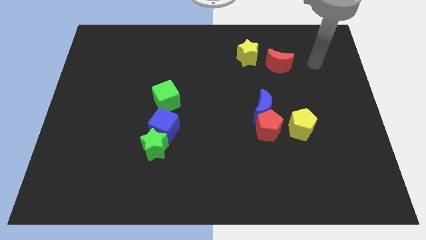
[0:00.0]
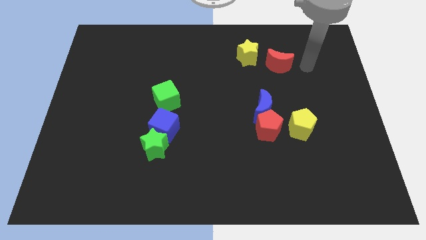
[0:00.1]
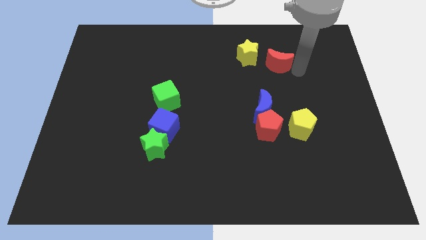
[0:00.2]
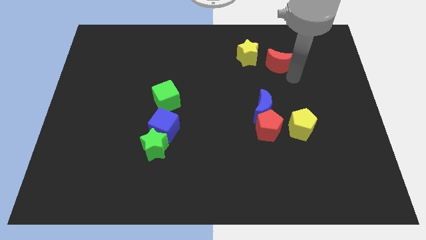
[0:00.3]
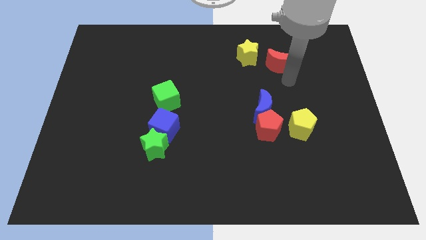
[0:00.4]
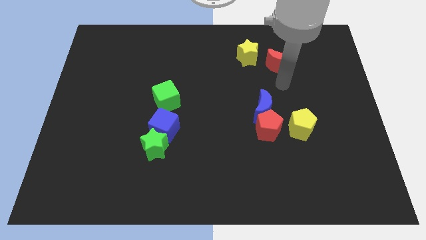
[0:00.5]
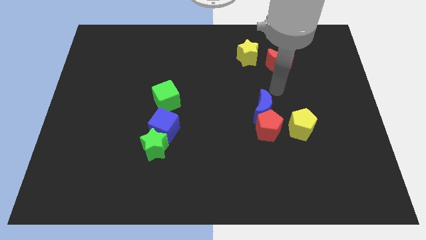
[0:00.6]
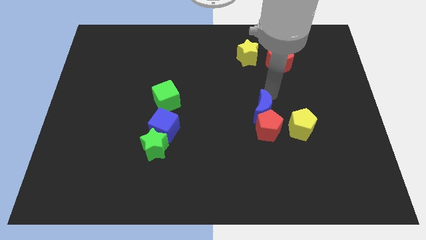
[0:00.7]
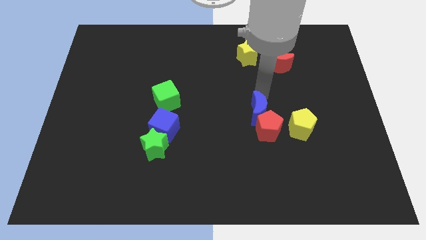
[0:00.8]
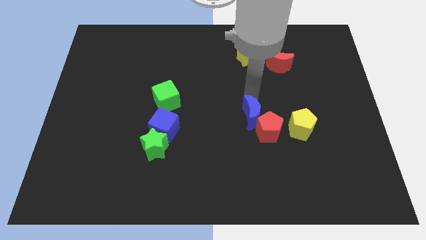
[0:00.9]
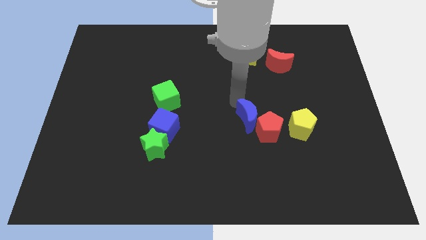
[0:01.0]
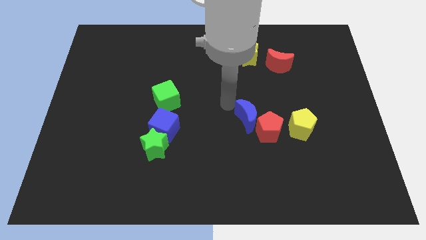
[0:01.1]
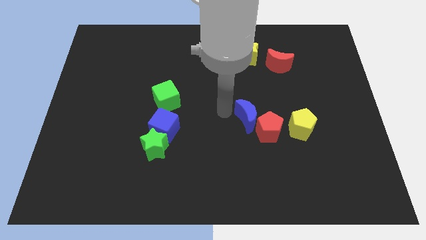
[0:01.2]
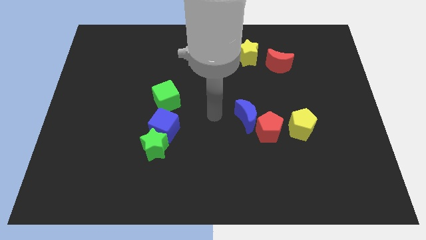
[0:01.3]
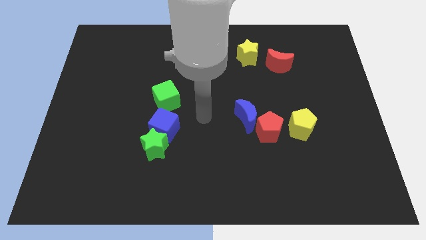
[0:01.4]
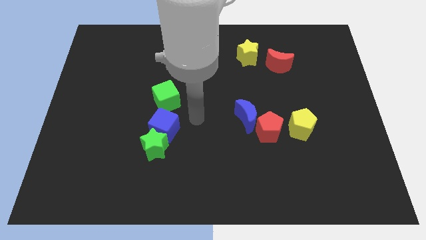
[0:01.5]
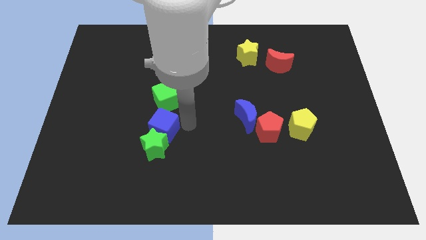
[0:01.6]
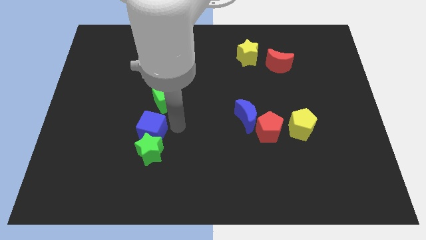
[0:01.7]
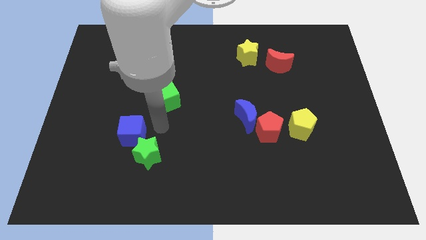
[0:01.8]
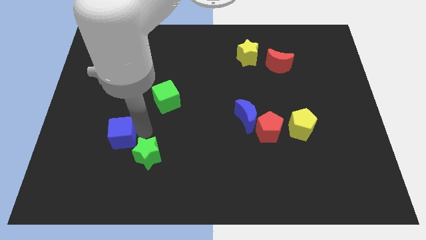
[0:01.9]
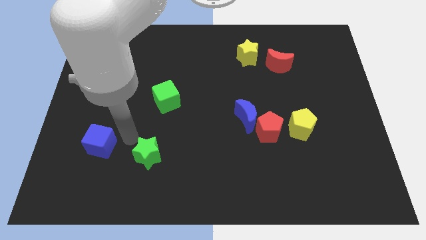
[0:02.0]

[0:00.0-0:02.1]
separate the green star from the blue cube

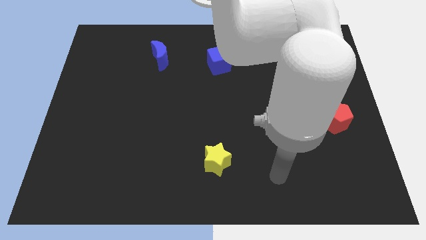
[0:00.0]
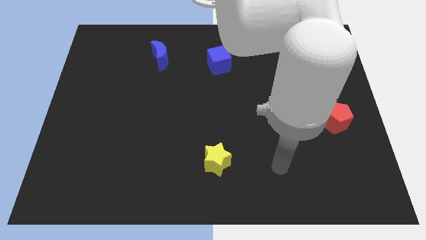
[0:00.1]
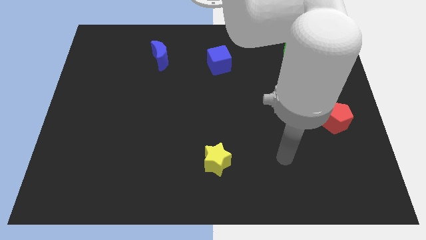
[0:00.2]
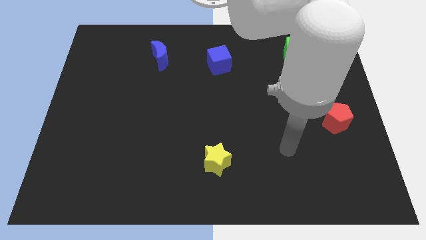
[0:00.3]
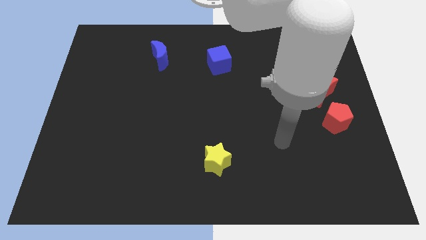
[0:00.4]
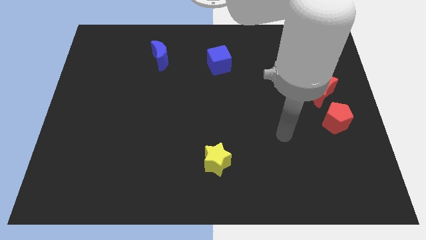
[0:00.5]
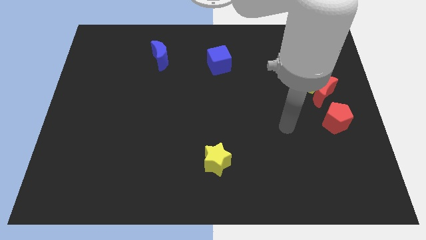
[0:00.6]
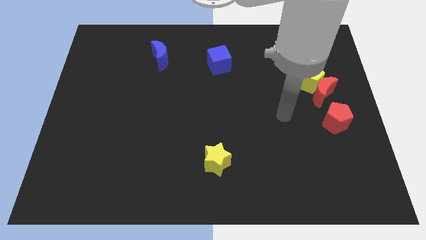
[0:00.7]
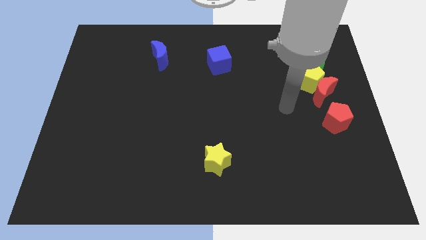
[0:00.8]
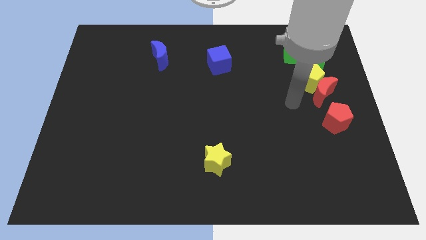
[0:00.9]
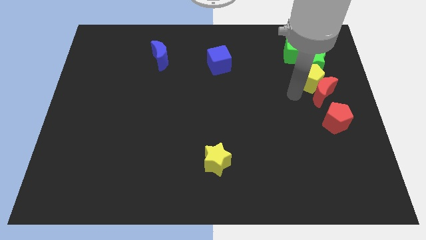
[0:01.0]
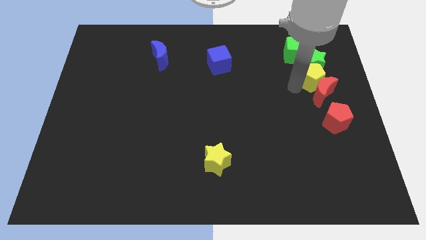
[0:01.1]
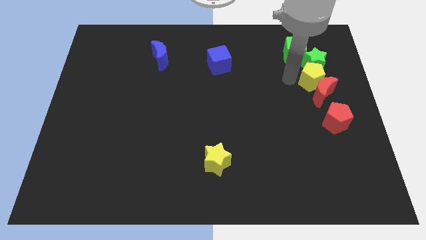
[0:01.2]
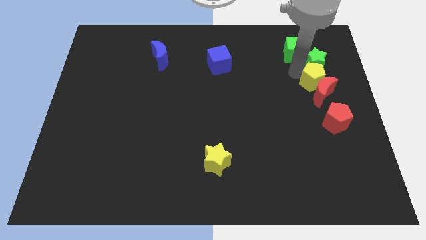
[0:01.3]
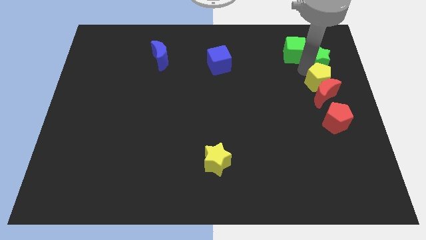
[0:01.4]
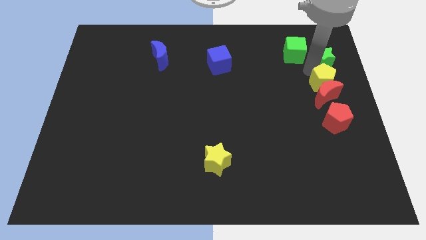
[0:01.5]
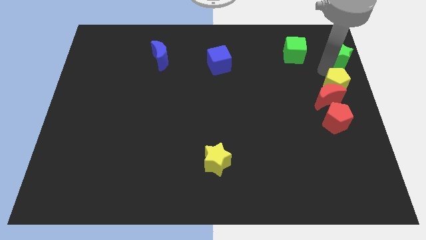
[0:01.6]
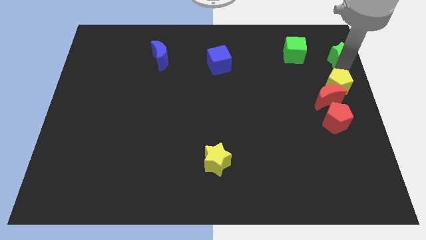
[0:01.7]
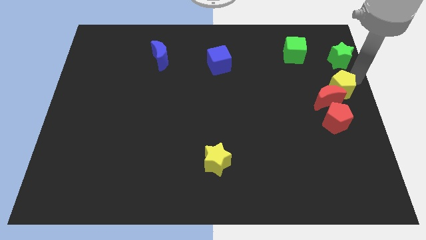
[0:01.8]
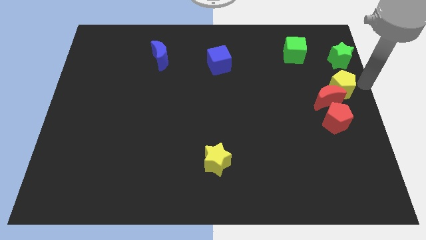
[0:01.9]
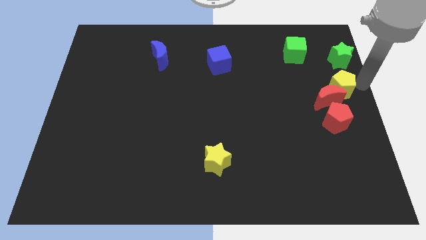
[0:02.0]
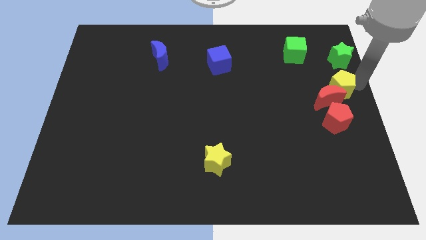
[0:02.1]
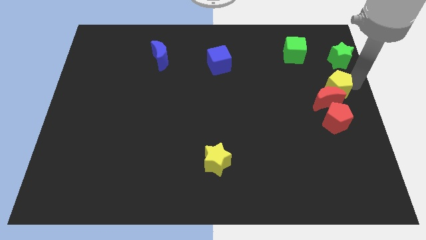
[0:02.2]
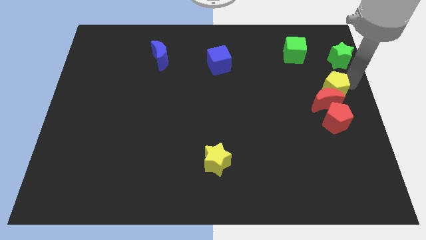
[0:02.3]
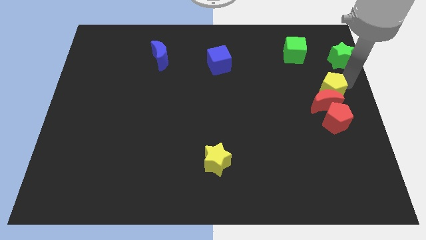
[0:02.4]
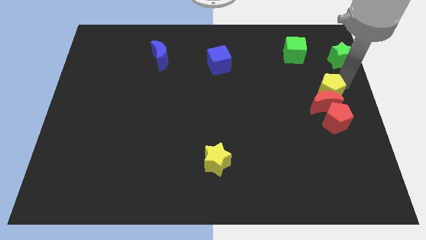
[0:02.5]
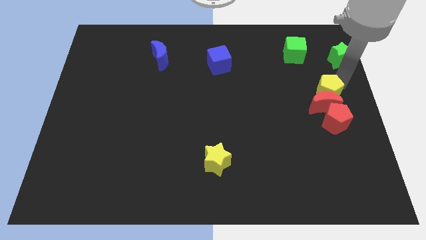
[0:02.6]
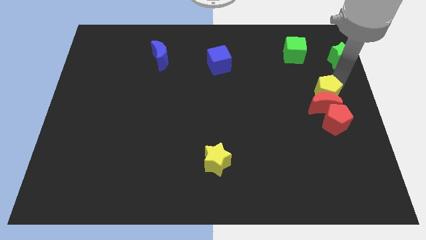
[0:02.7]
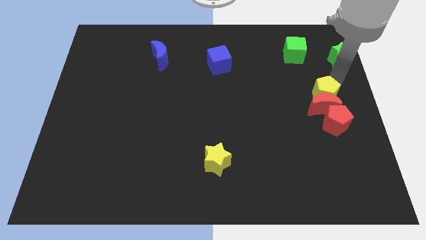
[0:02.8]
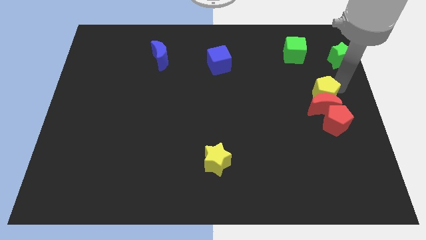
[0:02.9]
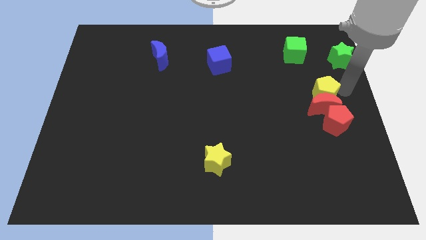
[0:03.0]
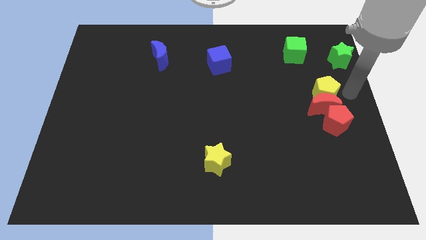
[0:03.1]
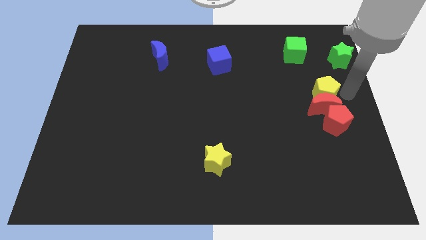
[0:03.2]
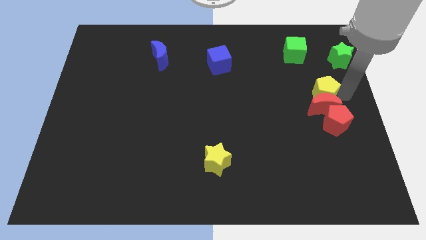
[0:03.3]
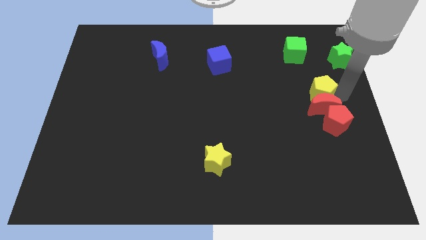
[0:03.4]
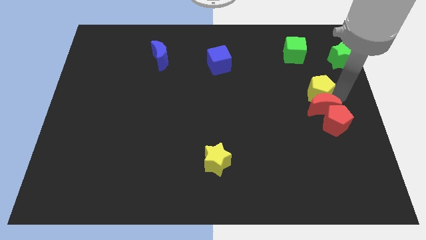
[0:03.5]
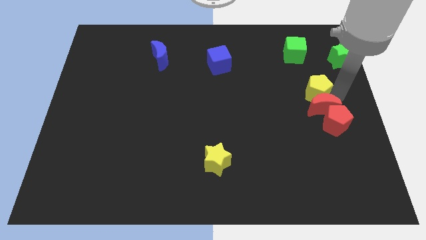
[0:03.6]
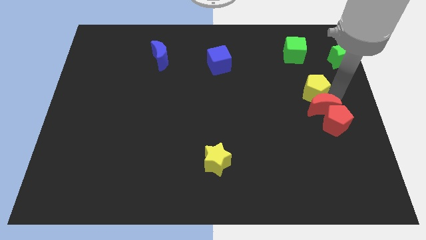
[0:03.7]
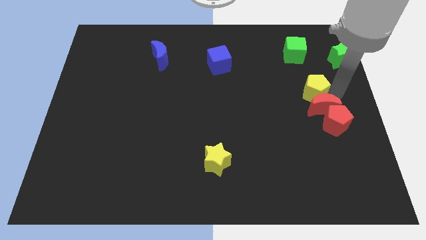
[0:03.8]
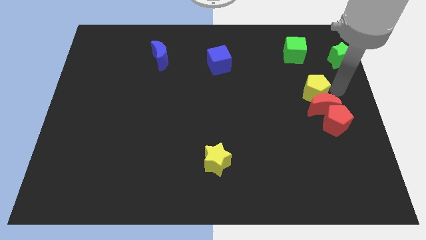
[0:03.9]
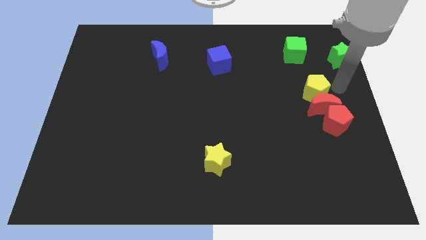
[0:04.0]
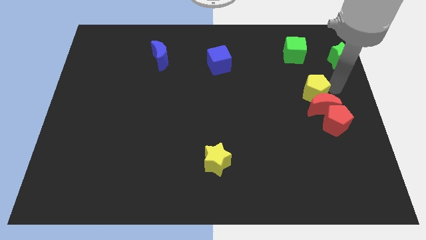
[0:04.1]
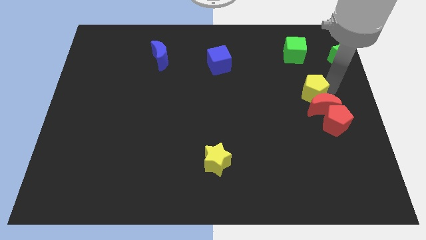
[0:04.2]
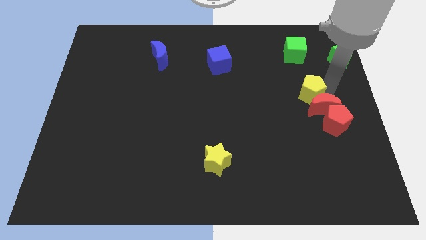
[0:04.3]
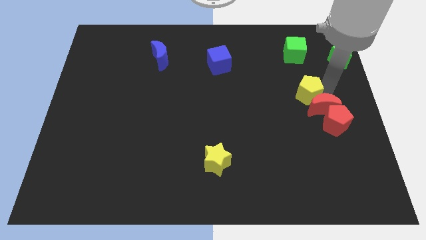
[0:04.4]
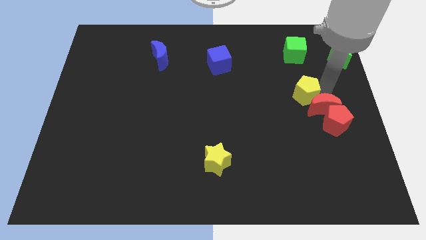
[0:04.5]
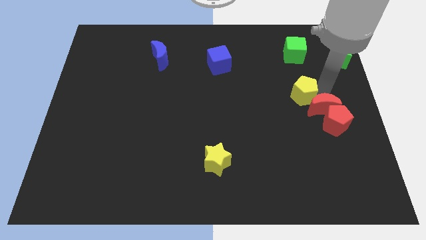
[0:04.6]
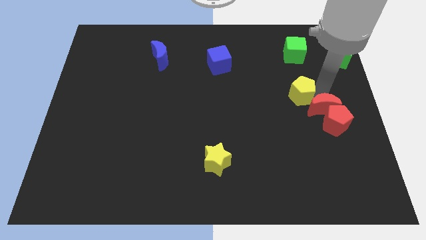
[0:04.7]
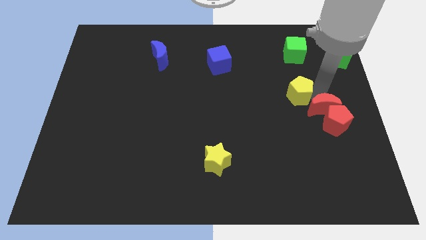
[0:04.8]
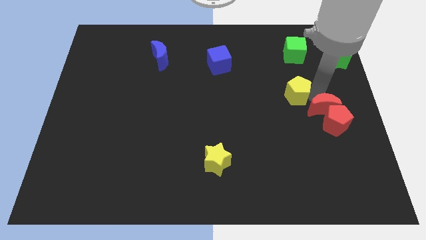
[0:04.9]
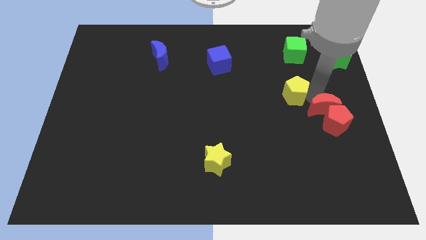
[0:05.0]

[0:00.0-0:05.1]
move the yellow pentagon away from the clump

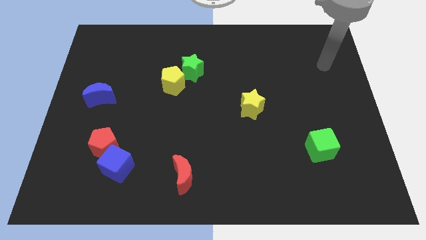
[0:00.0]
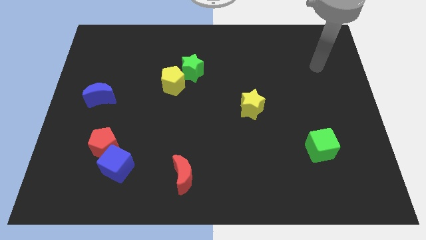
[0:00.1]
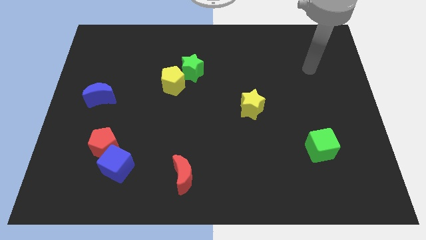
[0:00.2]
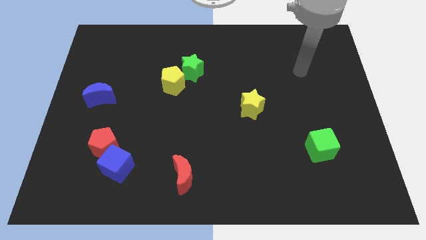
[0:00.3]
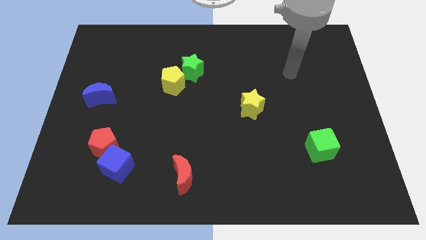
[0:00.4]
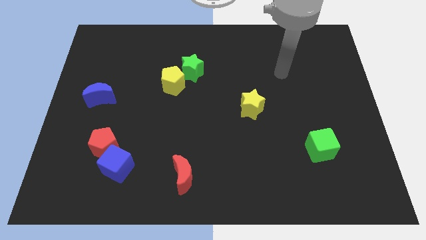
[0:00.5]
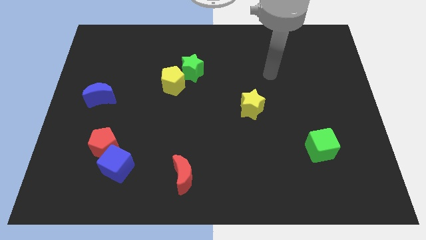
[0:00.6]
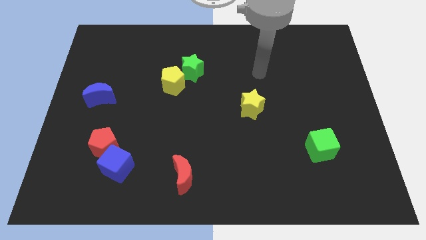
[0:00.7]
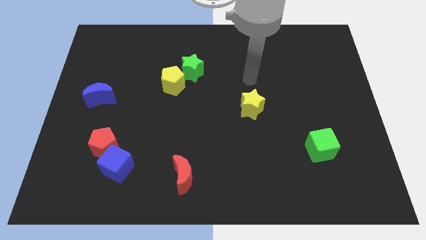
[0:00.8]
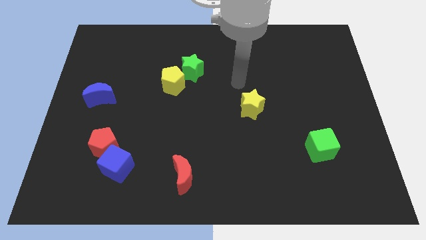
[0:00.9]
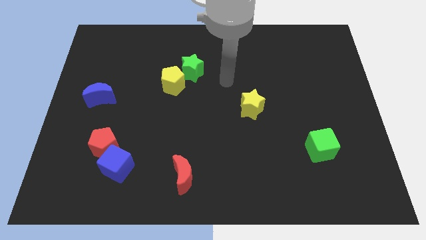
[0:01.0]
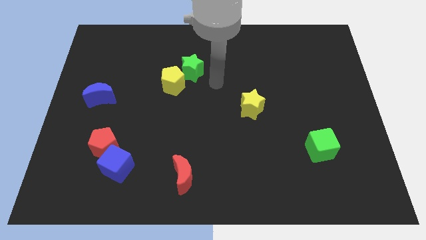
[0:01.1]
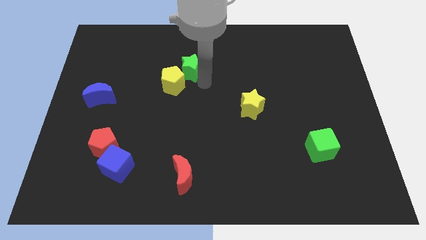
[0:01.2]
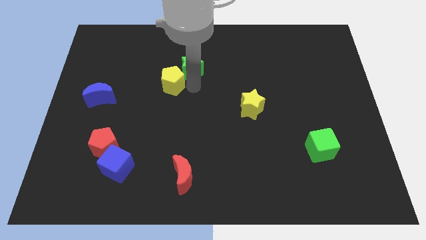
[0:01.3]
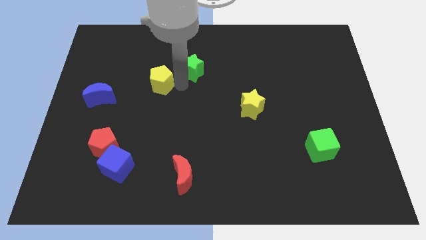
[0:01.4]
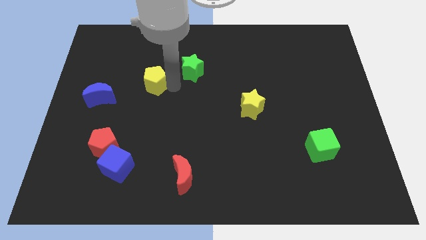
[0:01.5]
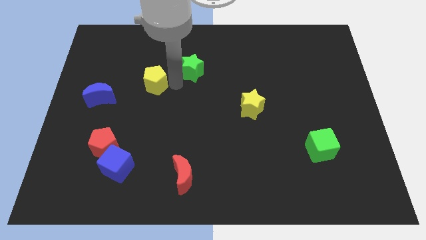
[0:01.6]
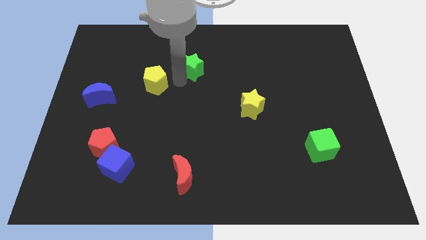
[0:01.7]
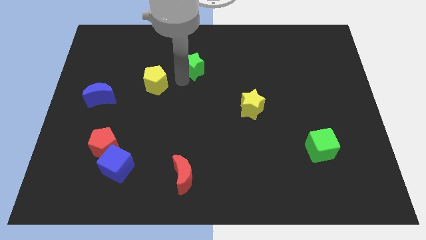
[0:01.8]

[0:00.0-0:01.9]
move the green star away from the yellow pentagon

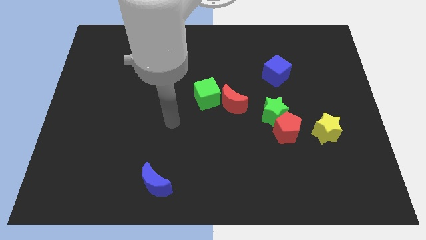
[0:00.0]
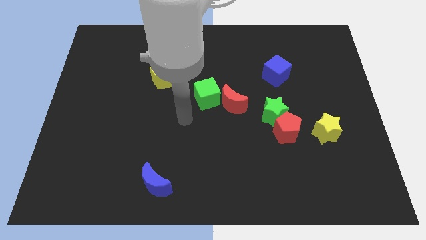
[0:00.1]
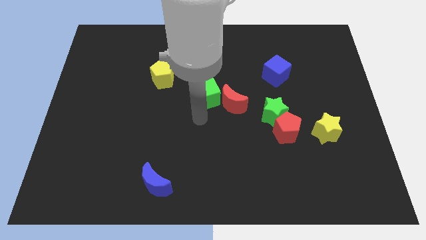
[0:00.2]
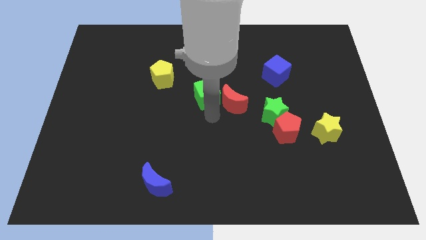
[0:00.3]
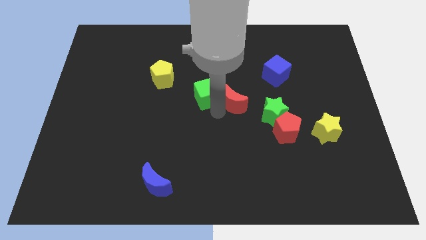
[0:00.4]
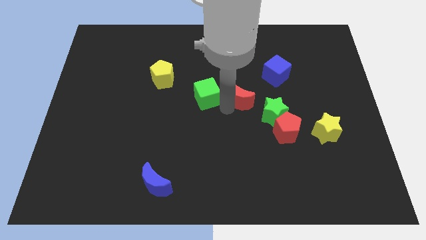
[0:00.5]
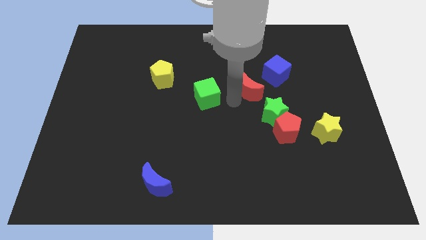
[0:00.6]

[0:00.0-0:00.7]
pull the green cube apart from the red moon
